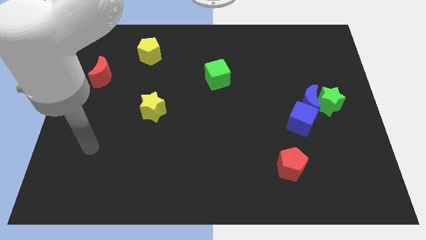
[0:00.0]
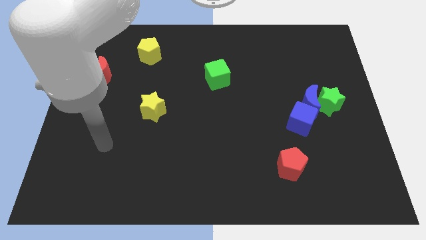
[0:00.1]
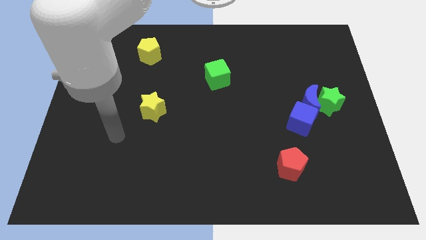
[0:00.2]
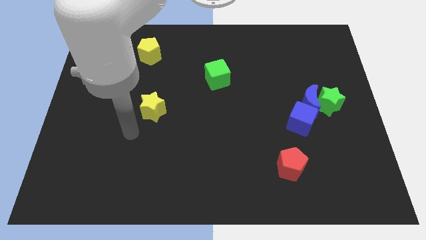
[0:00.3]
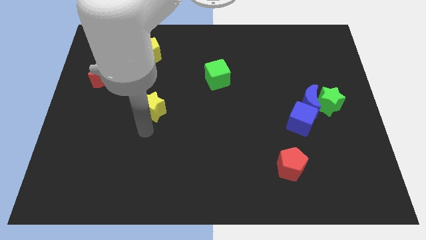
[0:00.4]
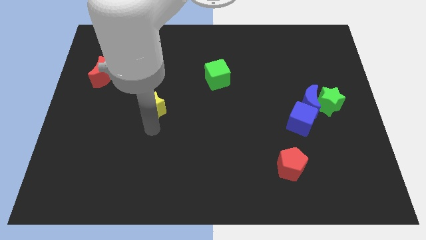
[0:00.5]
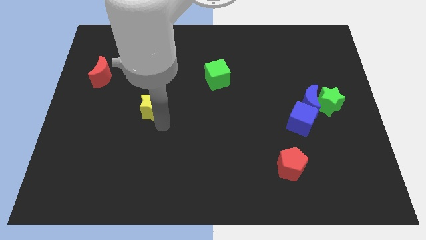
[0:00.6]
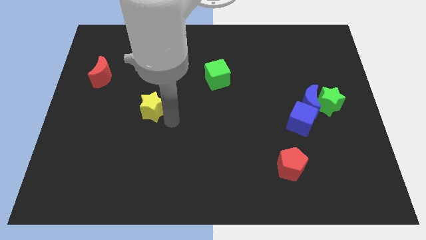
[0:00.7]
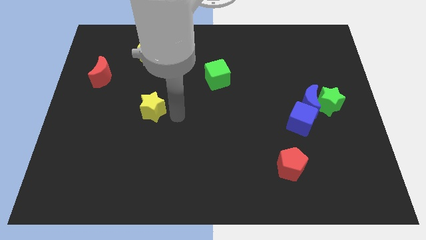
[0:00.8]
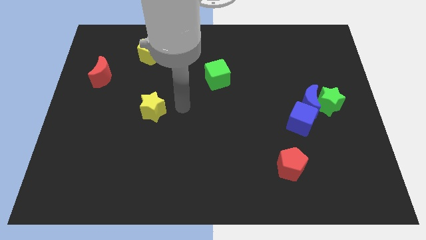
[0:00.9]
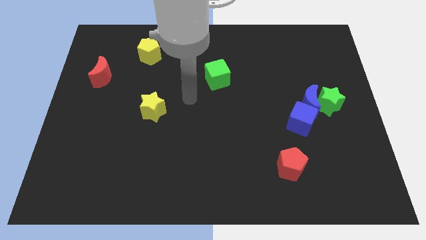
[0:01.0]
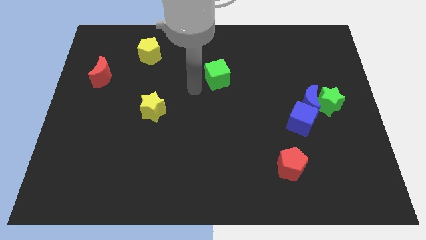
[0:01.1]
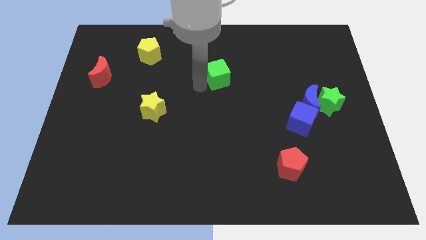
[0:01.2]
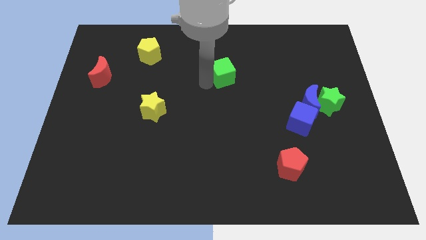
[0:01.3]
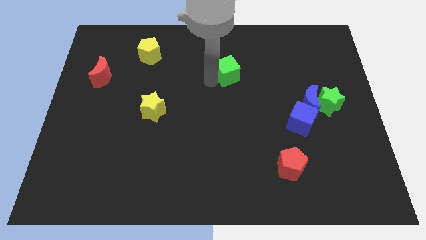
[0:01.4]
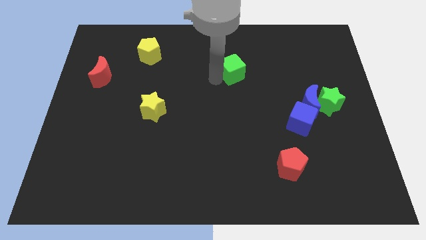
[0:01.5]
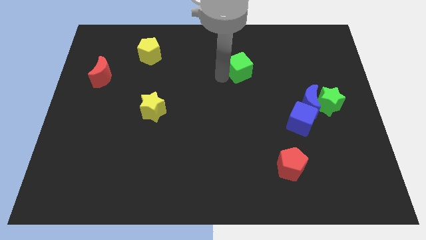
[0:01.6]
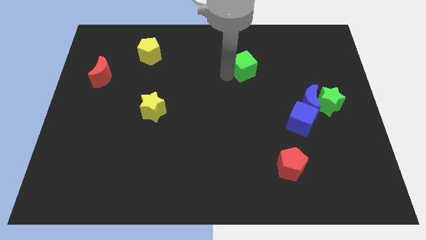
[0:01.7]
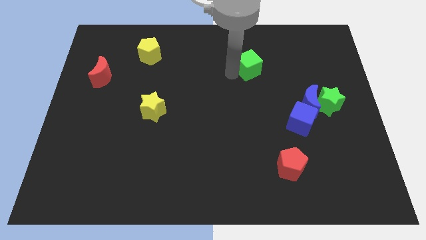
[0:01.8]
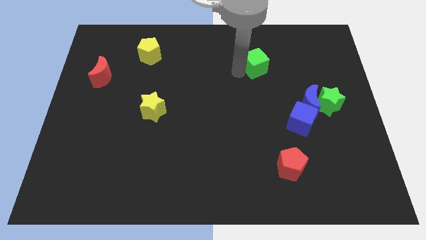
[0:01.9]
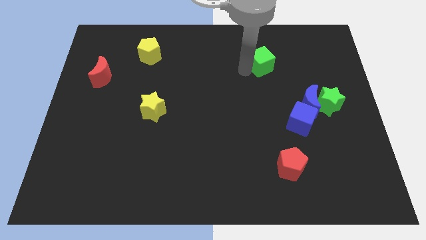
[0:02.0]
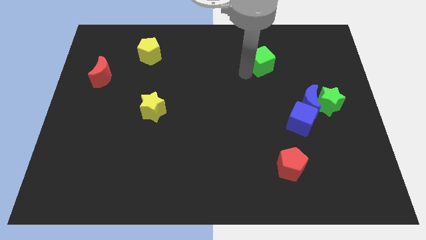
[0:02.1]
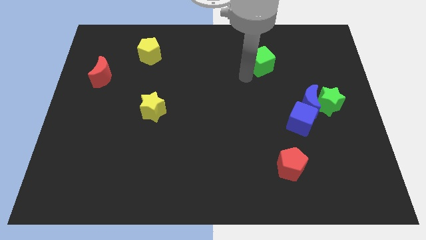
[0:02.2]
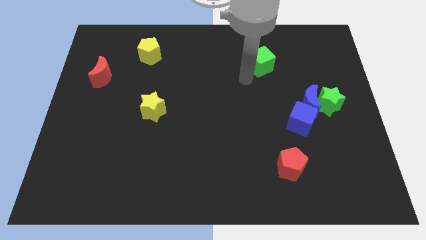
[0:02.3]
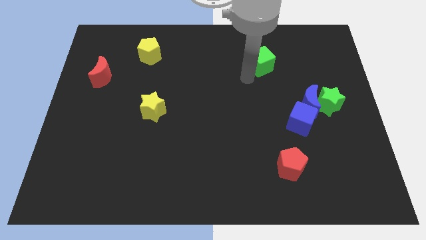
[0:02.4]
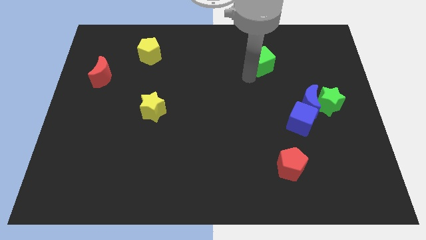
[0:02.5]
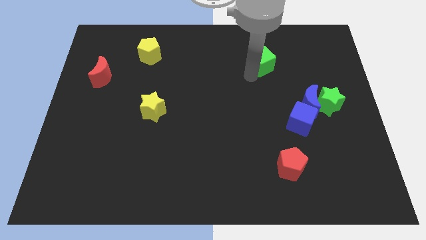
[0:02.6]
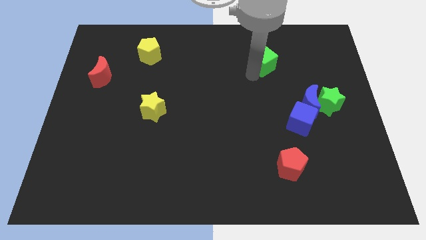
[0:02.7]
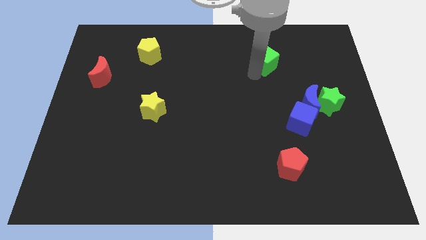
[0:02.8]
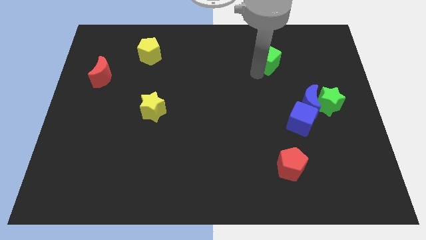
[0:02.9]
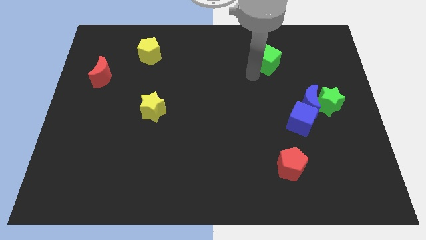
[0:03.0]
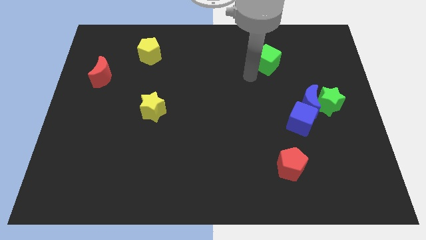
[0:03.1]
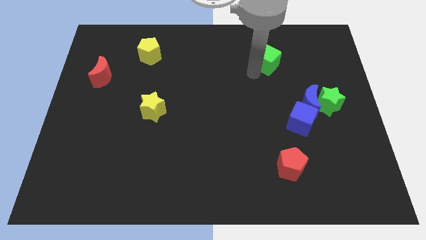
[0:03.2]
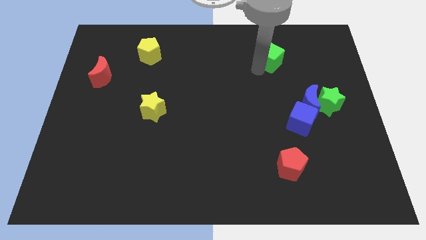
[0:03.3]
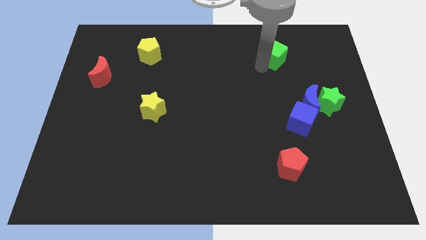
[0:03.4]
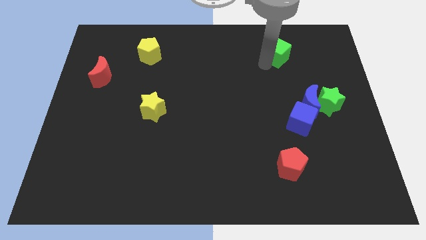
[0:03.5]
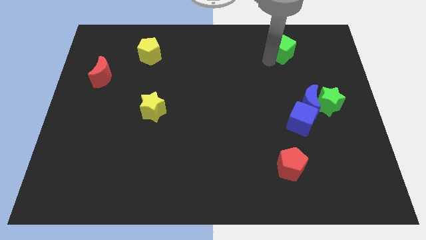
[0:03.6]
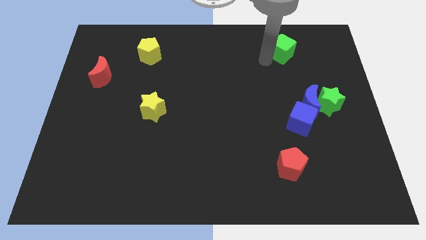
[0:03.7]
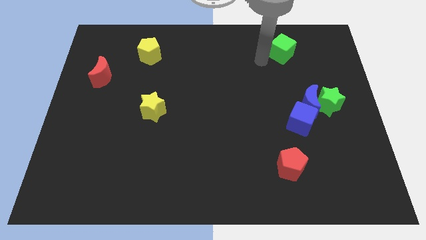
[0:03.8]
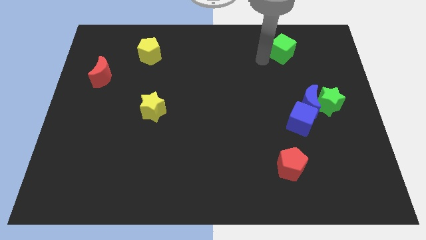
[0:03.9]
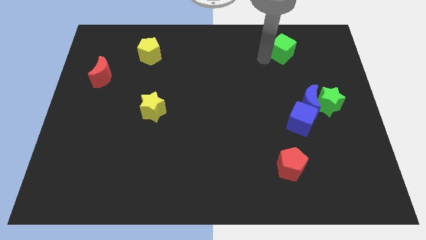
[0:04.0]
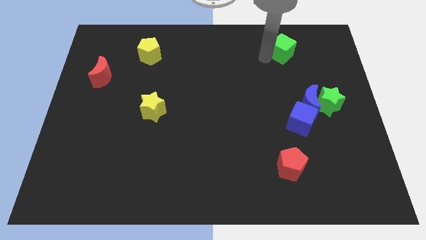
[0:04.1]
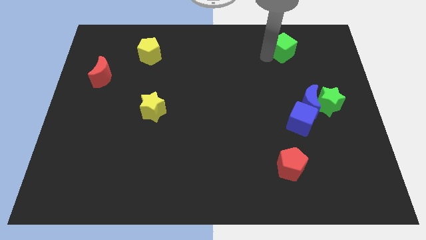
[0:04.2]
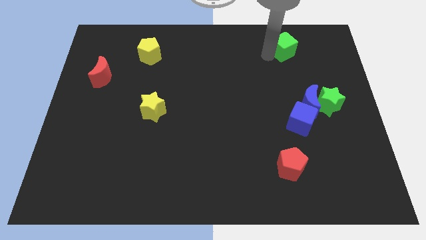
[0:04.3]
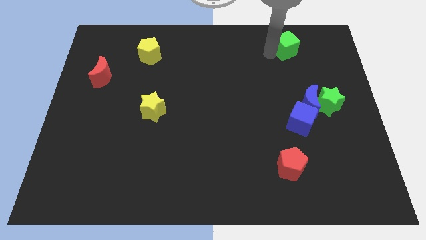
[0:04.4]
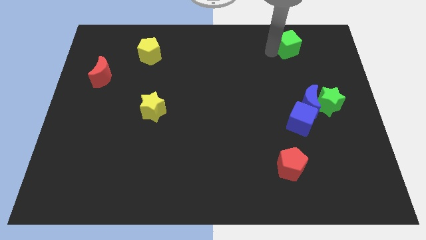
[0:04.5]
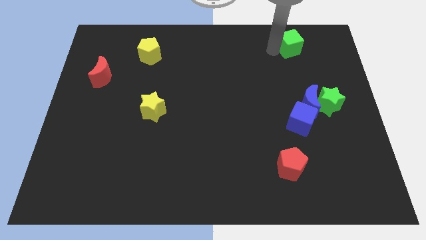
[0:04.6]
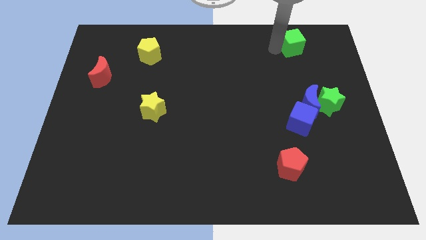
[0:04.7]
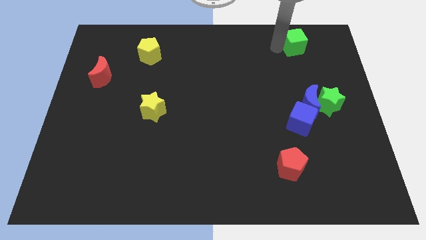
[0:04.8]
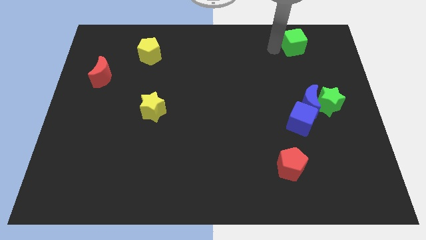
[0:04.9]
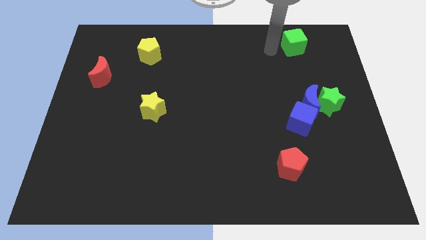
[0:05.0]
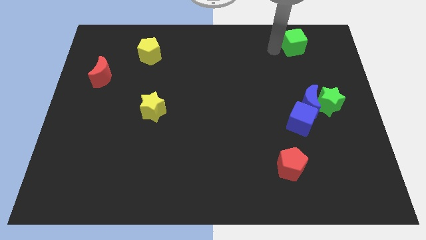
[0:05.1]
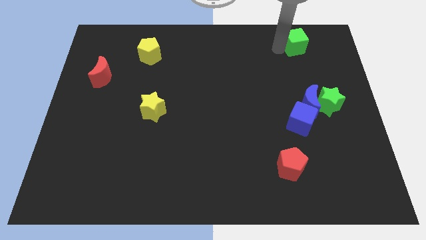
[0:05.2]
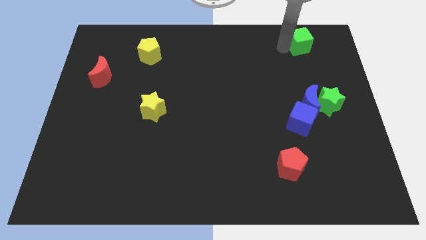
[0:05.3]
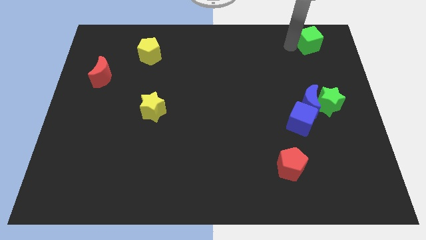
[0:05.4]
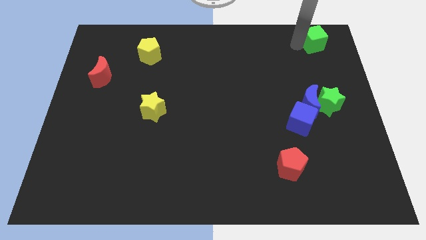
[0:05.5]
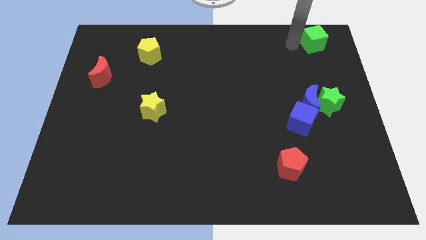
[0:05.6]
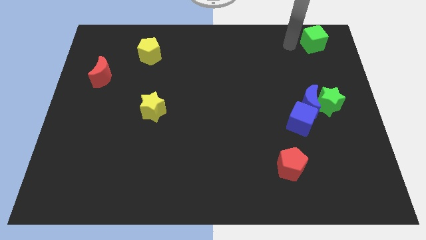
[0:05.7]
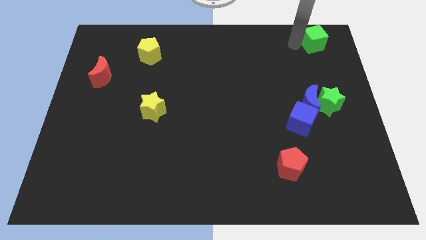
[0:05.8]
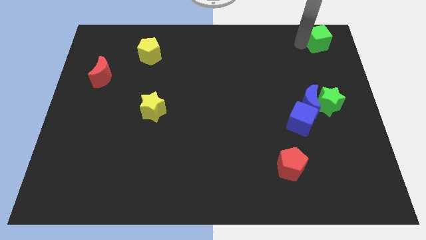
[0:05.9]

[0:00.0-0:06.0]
push the green cube to the upper right corner
